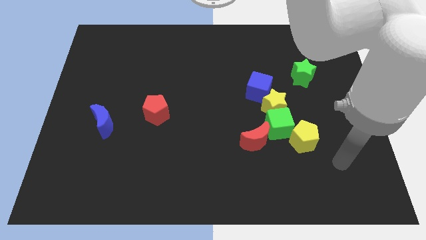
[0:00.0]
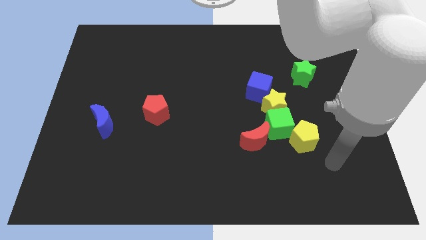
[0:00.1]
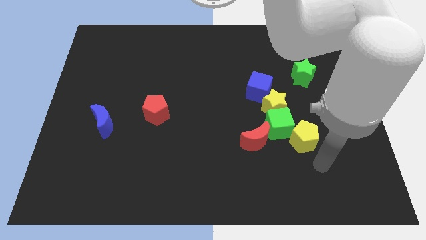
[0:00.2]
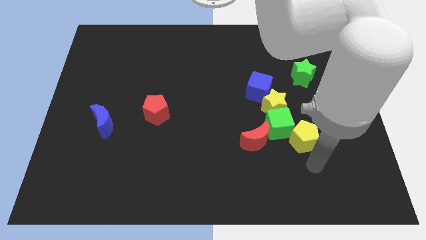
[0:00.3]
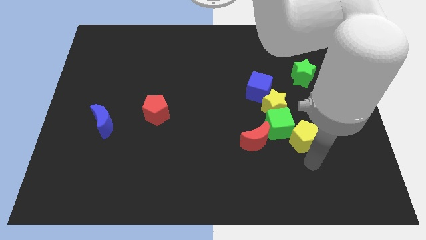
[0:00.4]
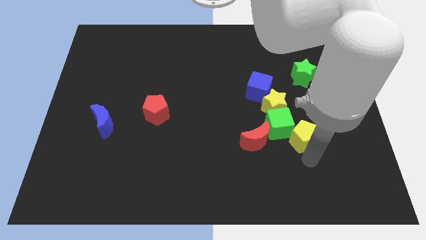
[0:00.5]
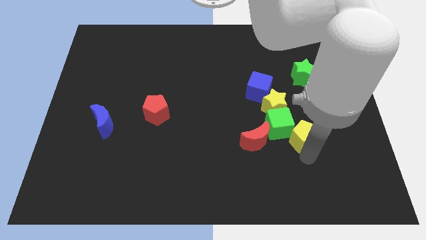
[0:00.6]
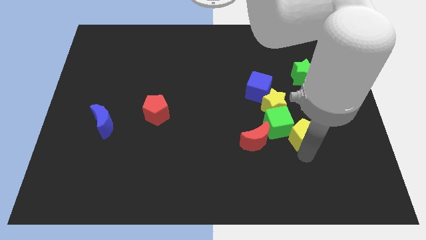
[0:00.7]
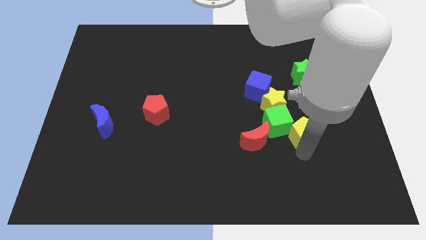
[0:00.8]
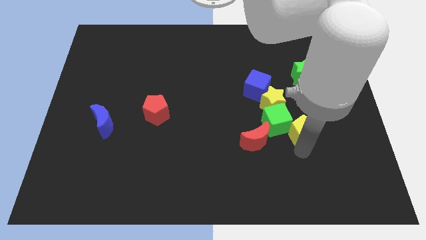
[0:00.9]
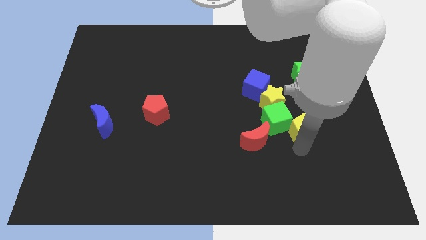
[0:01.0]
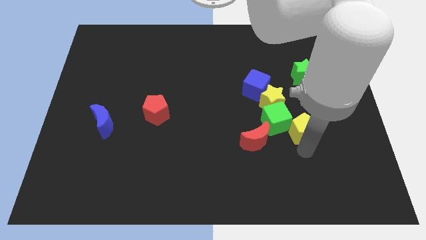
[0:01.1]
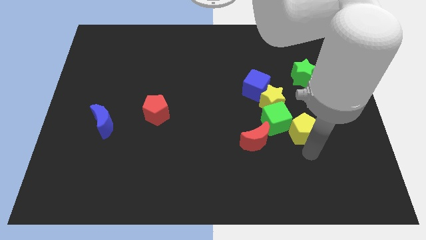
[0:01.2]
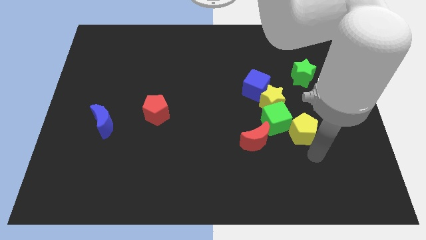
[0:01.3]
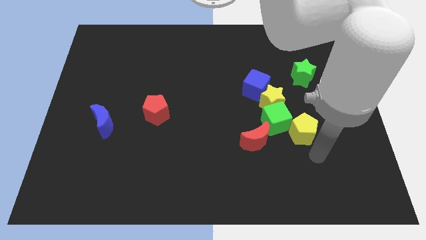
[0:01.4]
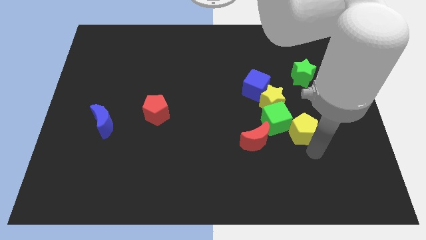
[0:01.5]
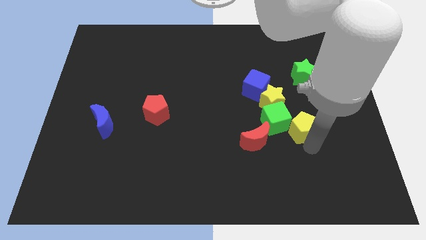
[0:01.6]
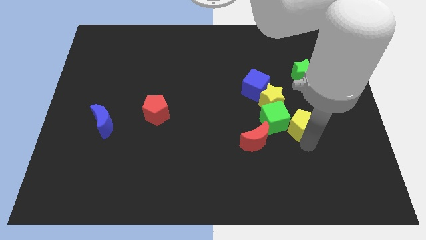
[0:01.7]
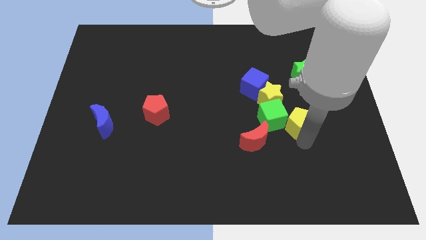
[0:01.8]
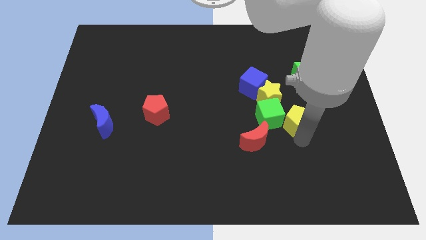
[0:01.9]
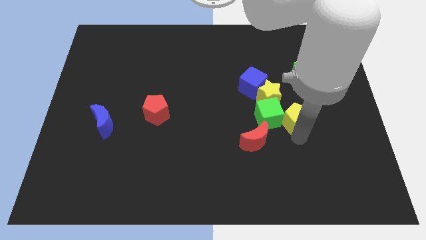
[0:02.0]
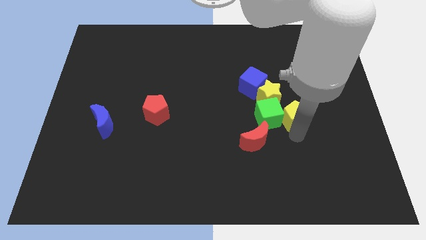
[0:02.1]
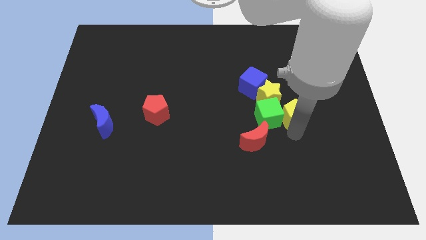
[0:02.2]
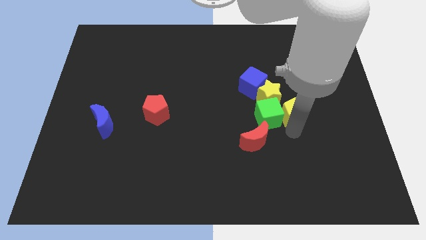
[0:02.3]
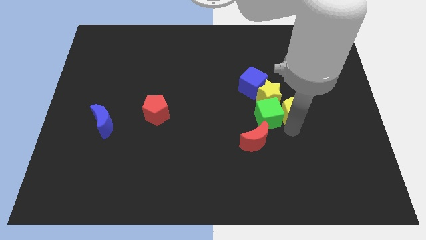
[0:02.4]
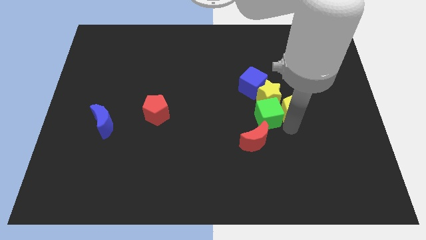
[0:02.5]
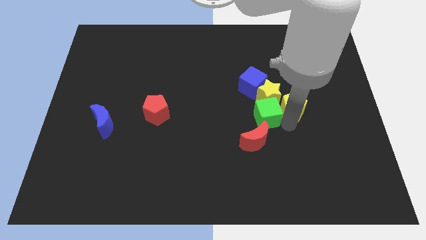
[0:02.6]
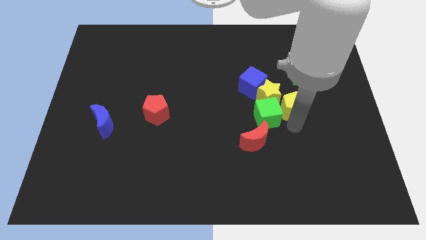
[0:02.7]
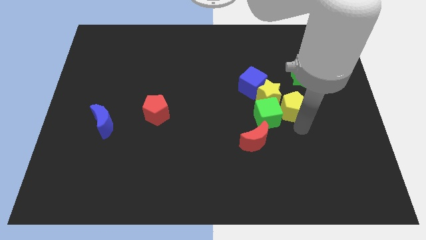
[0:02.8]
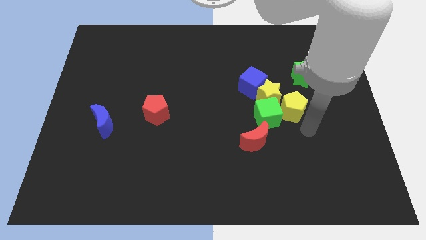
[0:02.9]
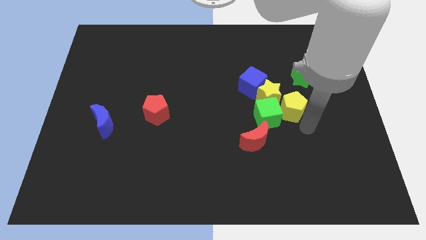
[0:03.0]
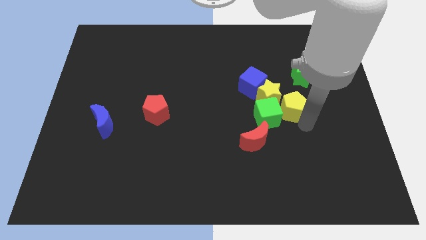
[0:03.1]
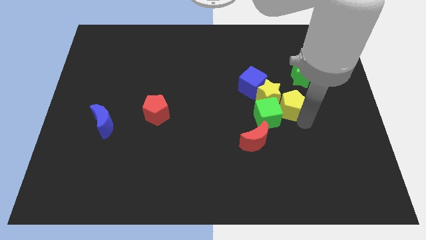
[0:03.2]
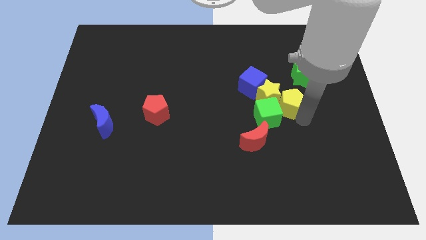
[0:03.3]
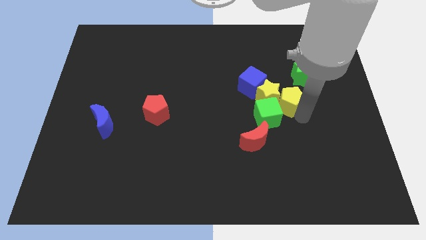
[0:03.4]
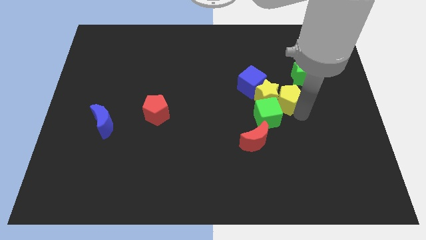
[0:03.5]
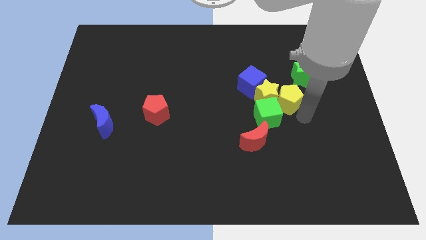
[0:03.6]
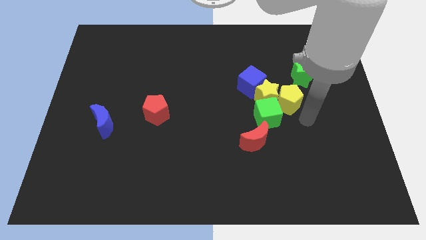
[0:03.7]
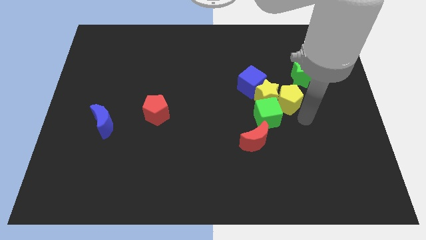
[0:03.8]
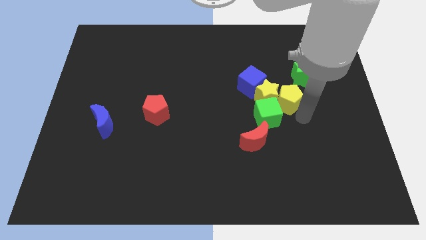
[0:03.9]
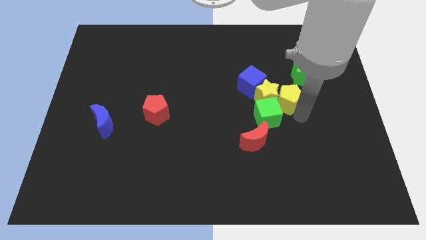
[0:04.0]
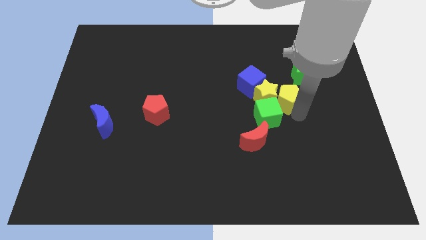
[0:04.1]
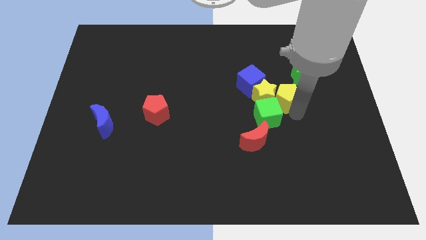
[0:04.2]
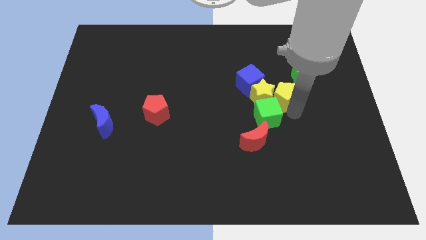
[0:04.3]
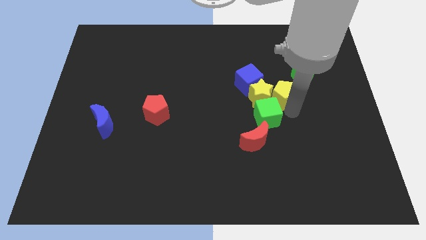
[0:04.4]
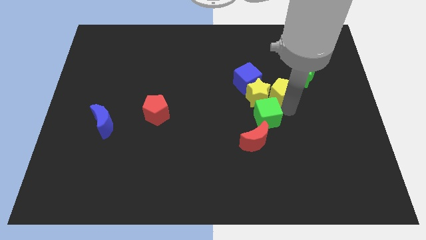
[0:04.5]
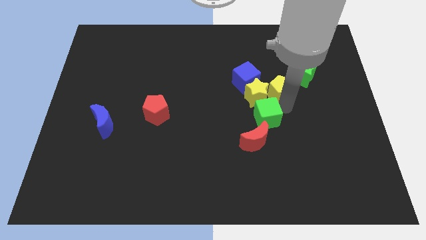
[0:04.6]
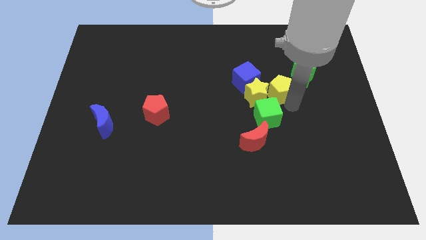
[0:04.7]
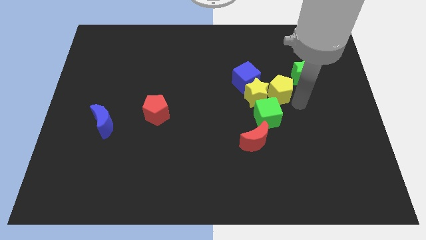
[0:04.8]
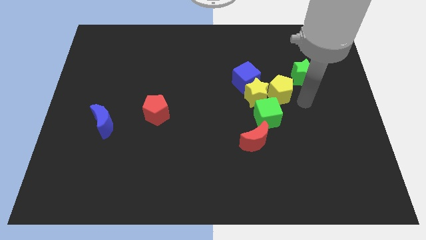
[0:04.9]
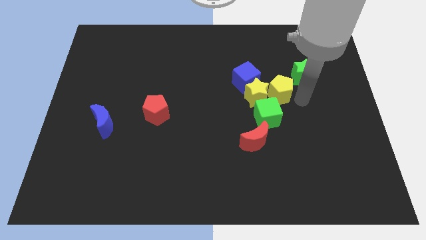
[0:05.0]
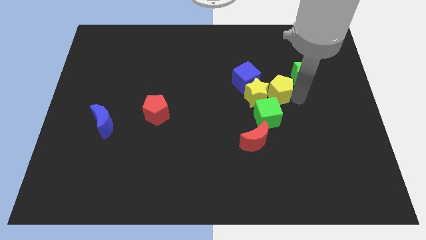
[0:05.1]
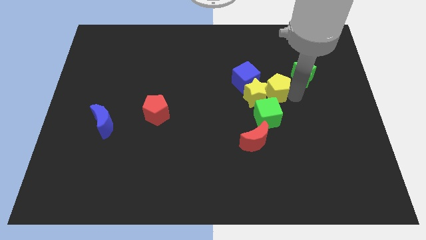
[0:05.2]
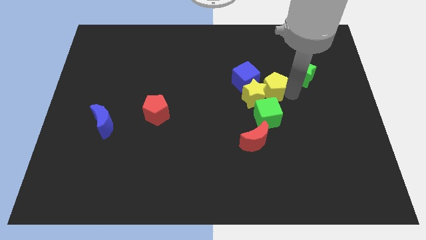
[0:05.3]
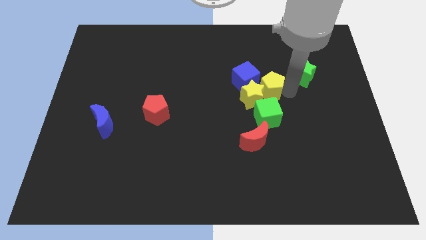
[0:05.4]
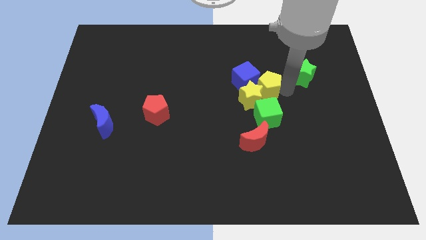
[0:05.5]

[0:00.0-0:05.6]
slide the yellow pentagon towards the blue cube

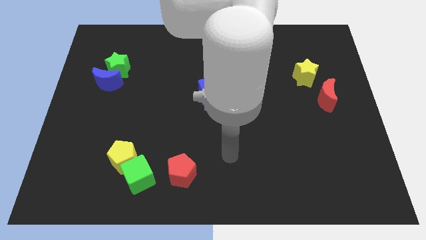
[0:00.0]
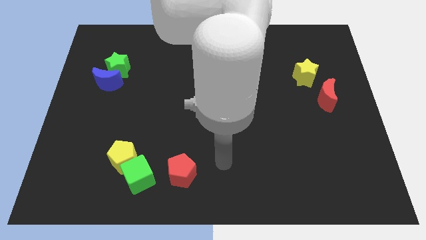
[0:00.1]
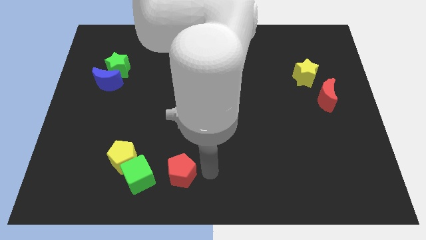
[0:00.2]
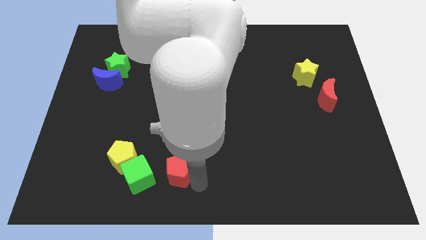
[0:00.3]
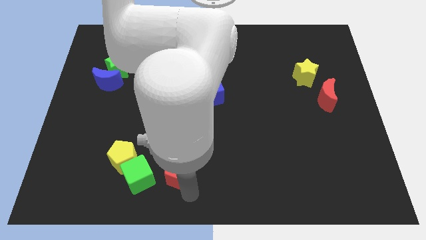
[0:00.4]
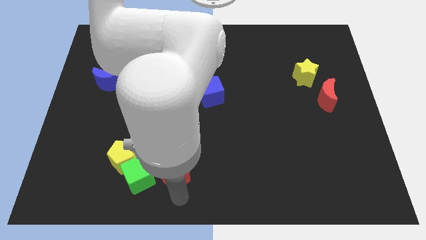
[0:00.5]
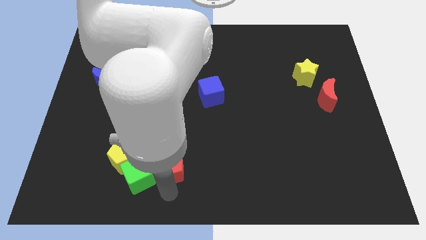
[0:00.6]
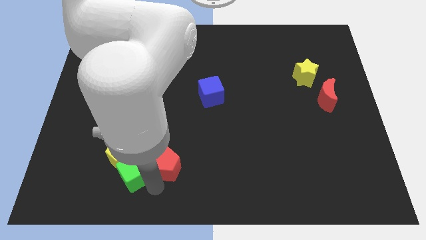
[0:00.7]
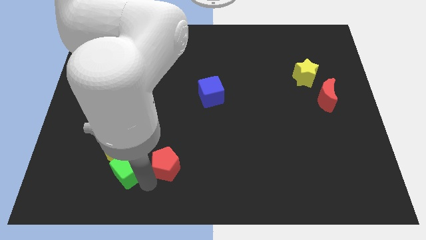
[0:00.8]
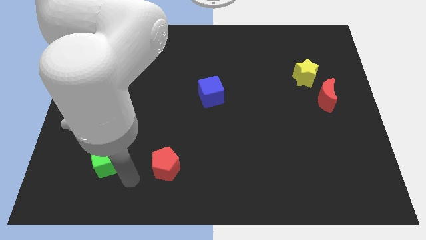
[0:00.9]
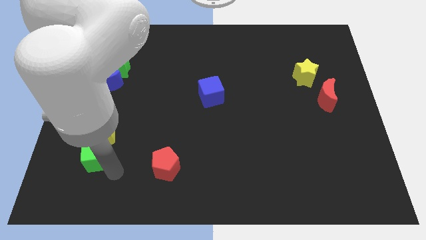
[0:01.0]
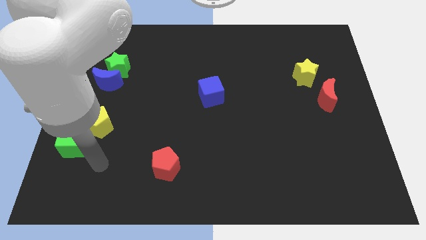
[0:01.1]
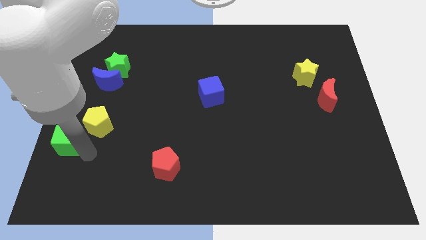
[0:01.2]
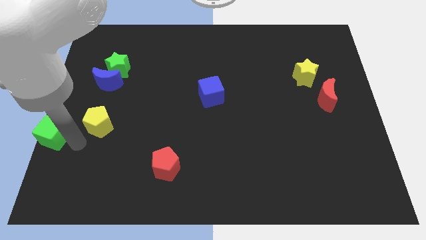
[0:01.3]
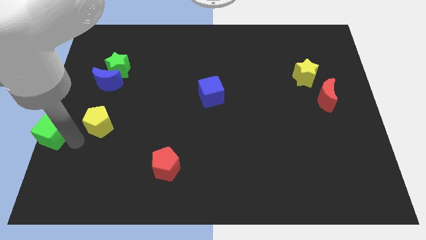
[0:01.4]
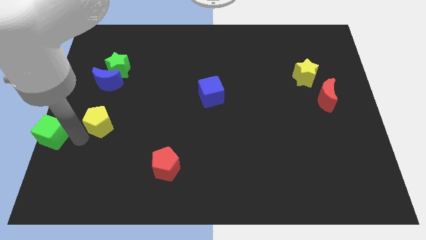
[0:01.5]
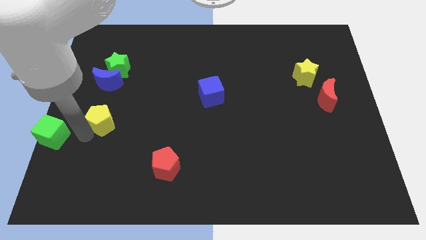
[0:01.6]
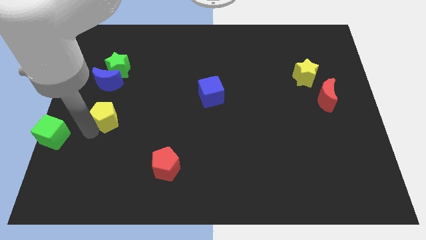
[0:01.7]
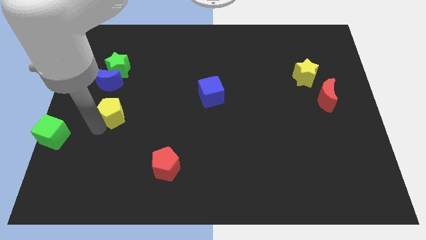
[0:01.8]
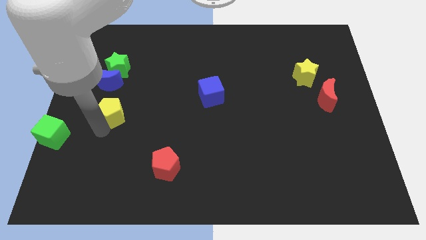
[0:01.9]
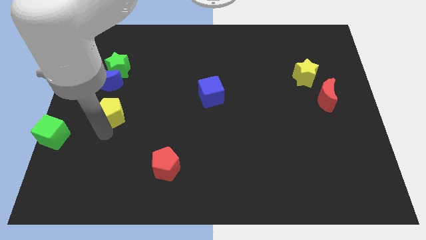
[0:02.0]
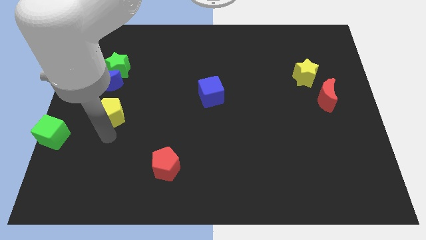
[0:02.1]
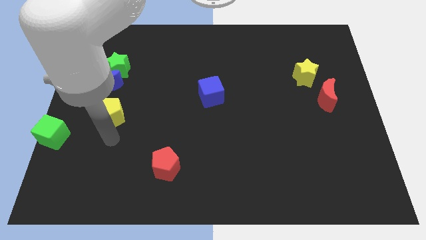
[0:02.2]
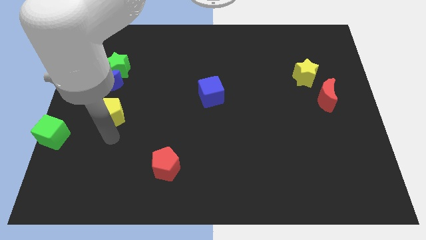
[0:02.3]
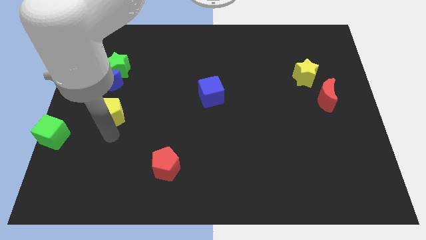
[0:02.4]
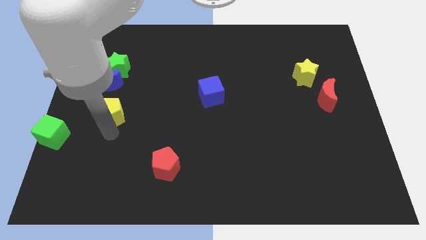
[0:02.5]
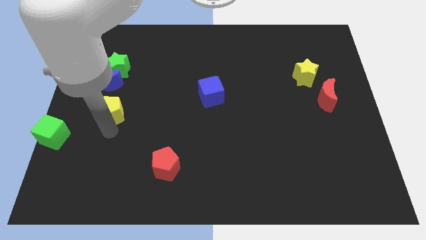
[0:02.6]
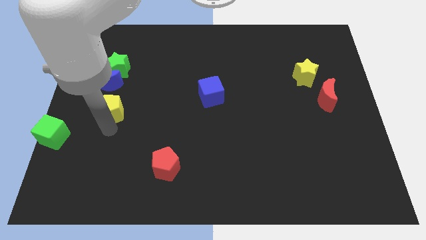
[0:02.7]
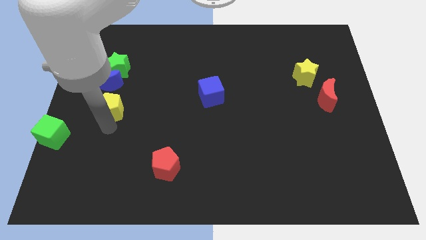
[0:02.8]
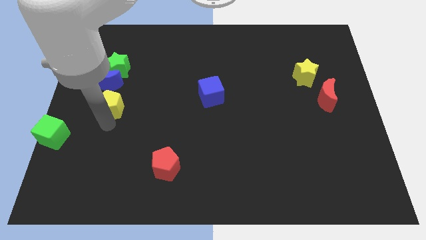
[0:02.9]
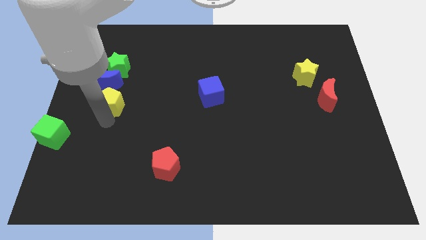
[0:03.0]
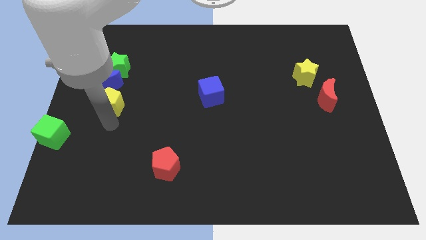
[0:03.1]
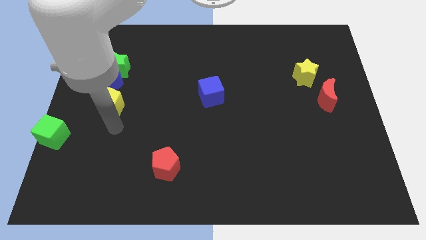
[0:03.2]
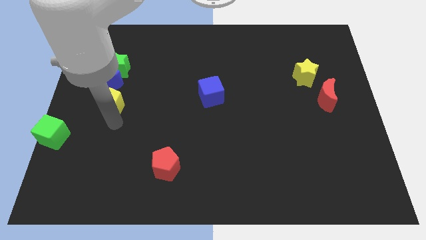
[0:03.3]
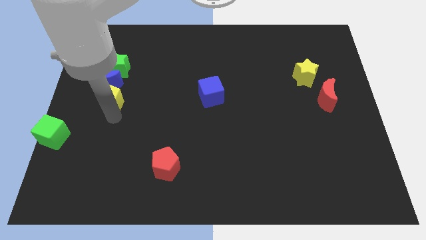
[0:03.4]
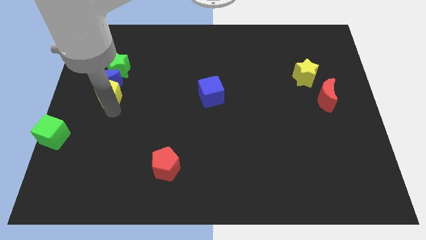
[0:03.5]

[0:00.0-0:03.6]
move the yellow pentagon close to the blue moon
